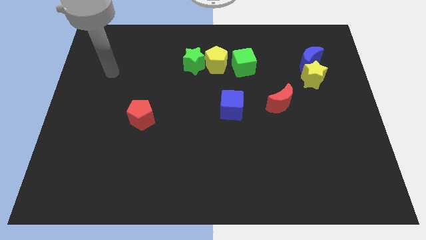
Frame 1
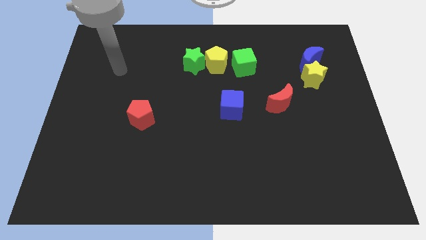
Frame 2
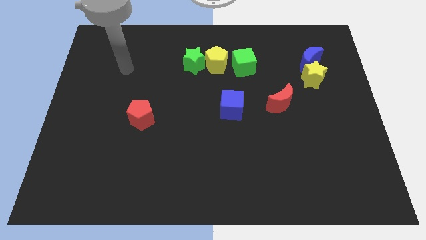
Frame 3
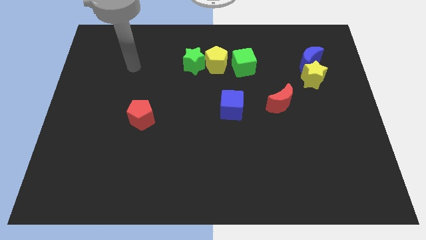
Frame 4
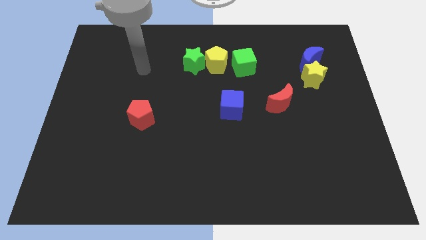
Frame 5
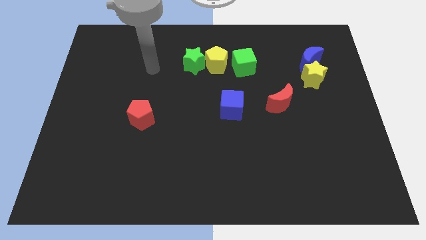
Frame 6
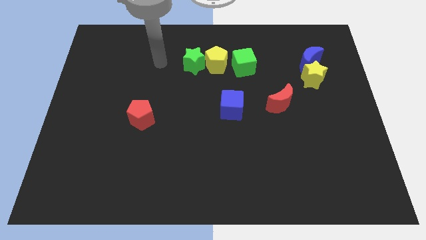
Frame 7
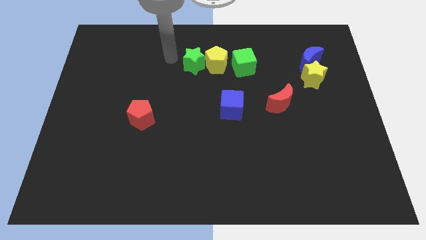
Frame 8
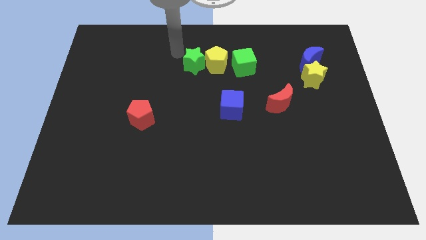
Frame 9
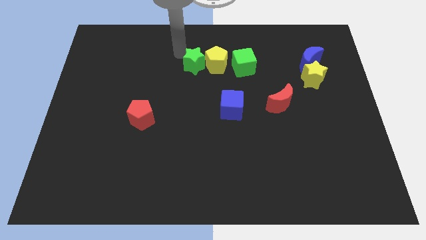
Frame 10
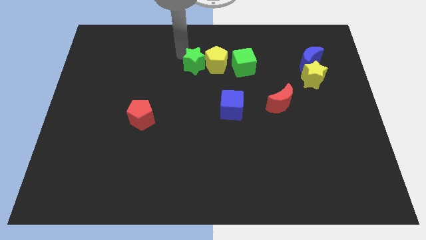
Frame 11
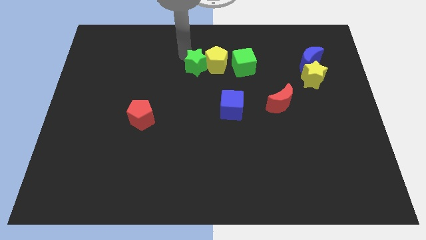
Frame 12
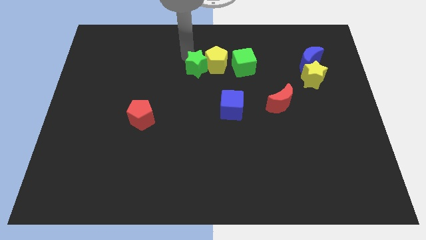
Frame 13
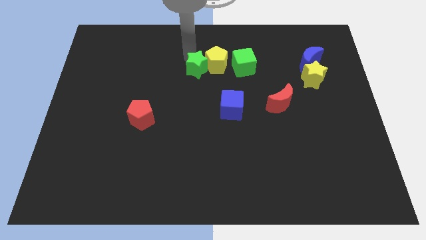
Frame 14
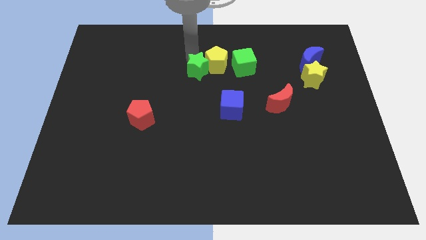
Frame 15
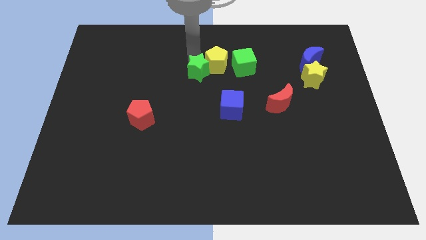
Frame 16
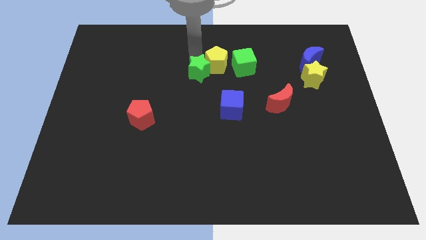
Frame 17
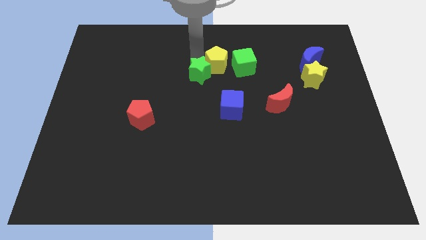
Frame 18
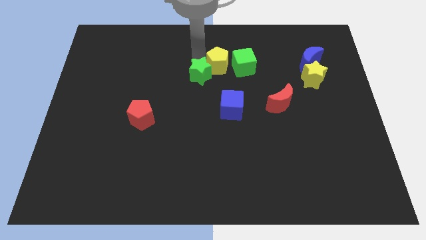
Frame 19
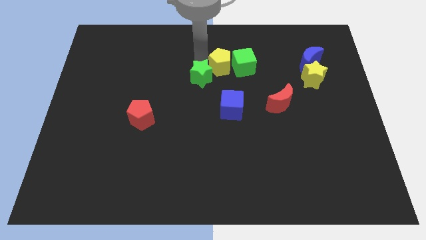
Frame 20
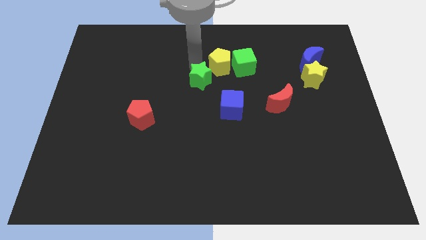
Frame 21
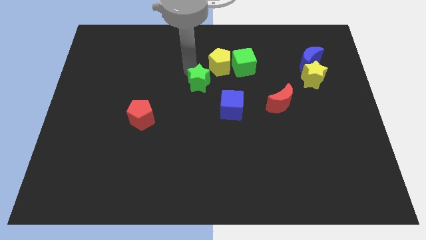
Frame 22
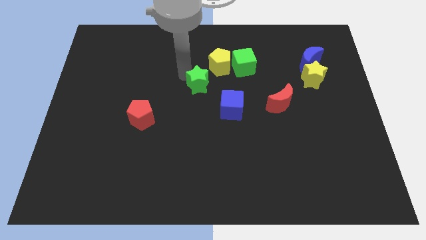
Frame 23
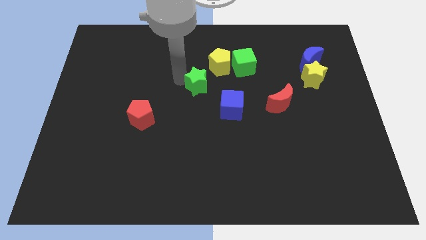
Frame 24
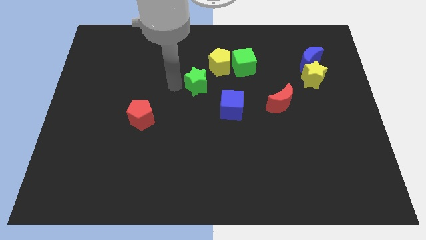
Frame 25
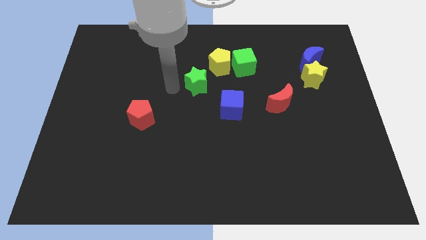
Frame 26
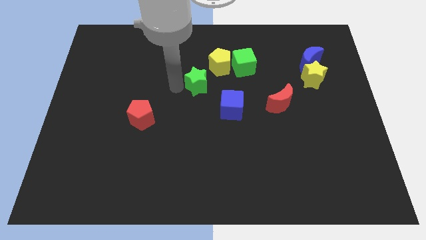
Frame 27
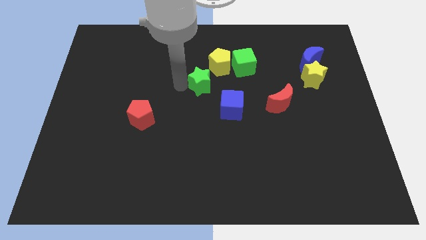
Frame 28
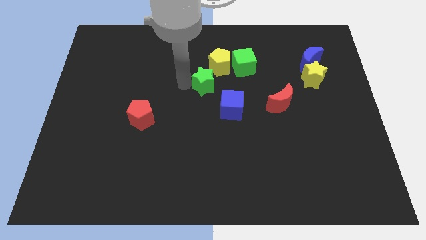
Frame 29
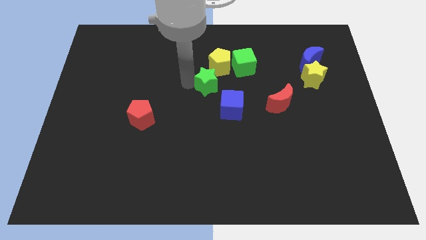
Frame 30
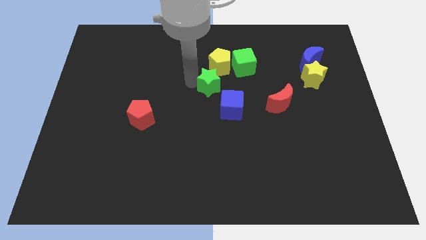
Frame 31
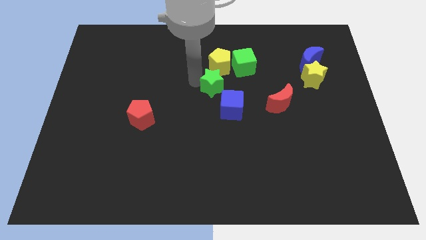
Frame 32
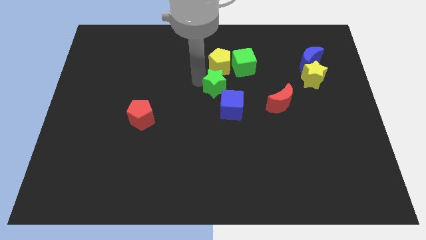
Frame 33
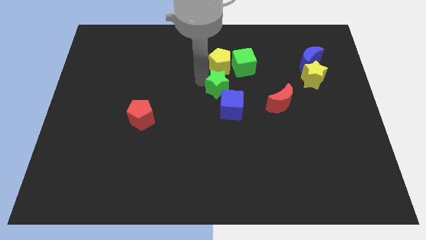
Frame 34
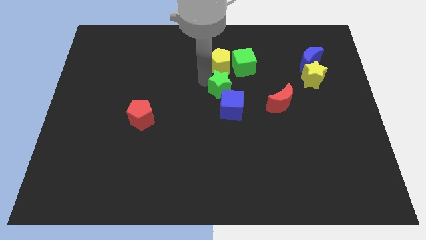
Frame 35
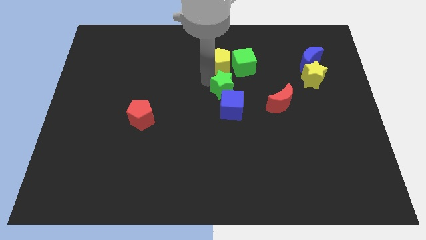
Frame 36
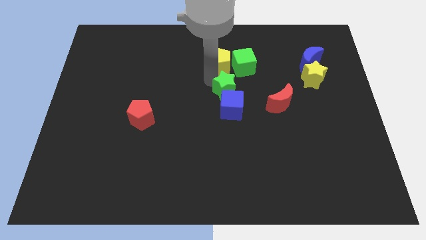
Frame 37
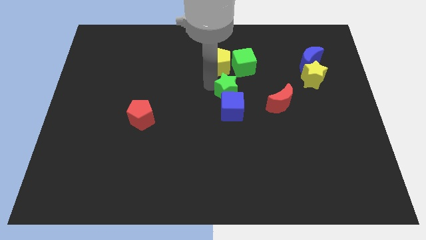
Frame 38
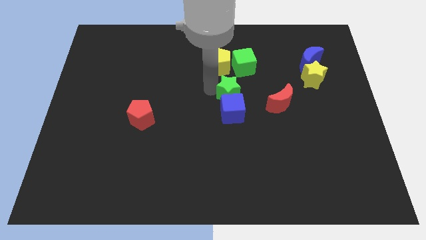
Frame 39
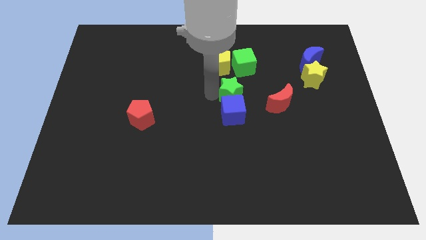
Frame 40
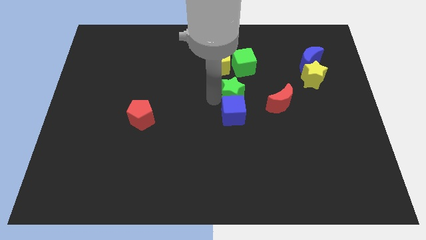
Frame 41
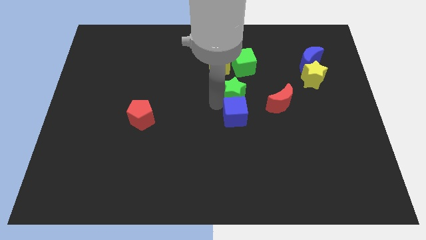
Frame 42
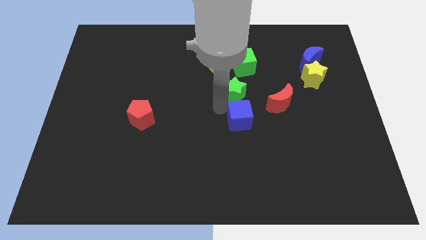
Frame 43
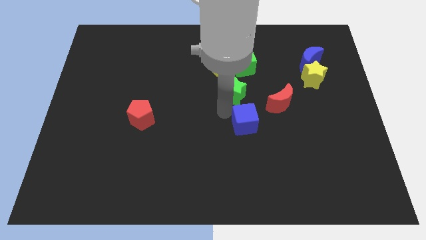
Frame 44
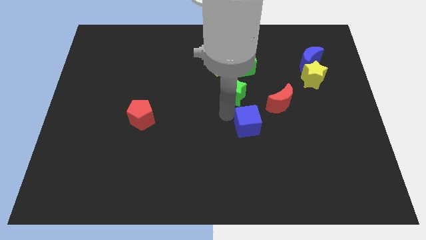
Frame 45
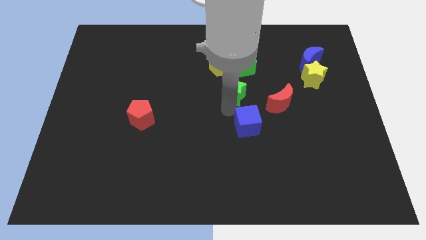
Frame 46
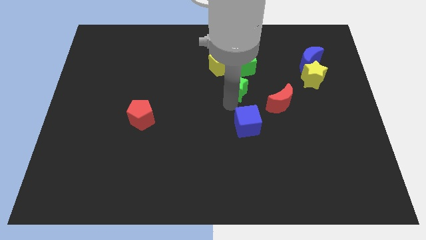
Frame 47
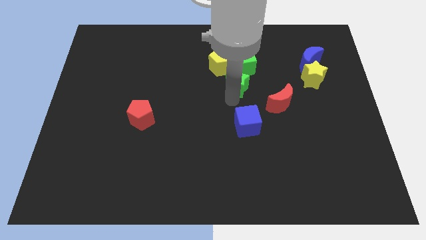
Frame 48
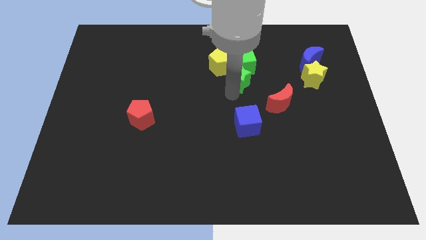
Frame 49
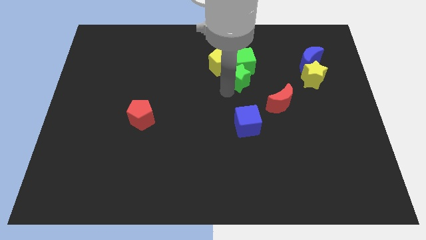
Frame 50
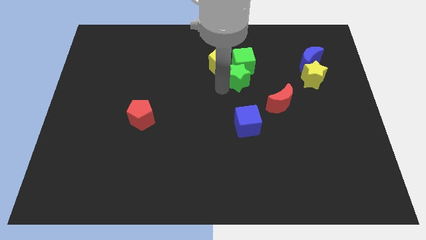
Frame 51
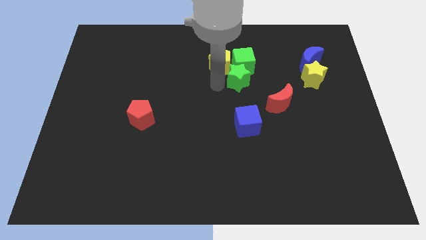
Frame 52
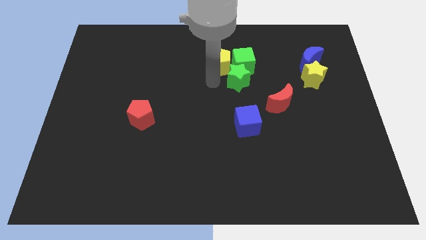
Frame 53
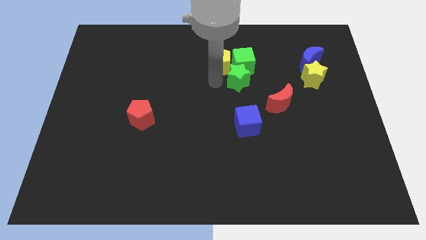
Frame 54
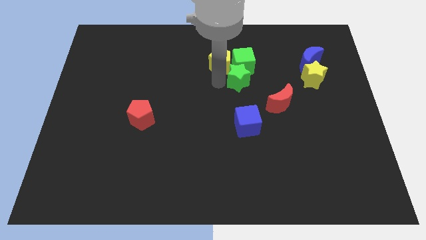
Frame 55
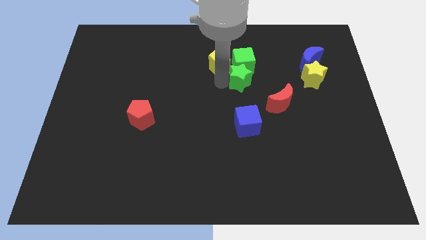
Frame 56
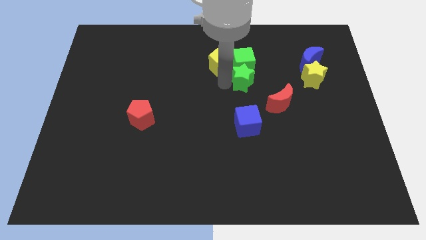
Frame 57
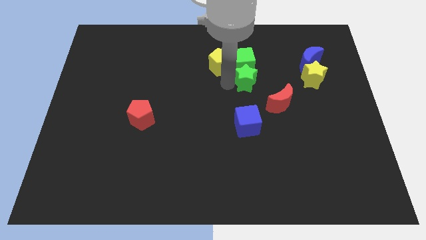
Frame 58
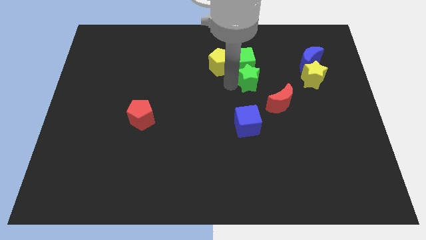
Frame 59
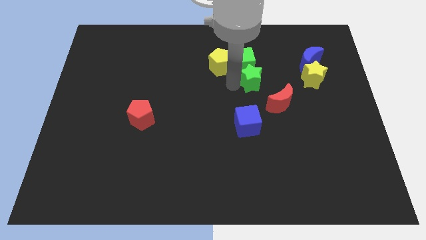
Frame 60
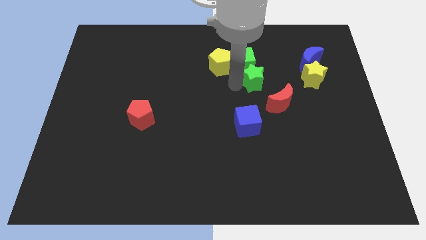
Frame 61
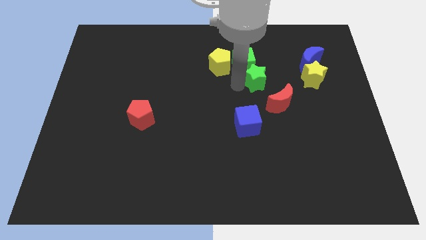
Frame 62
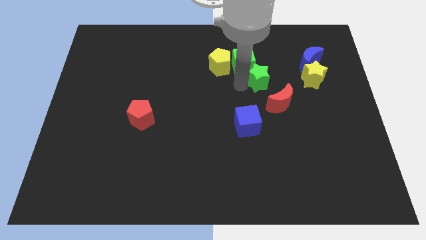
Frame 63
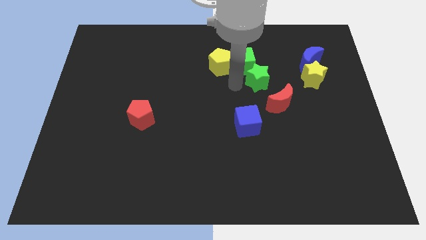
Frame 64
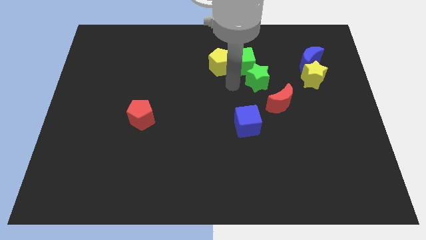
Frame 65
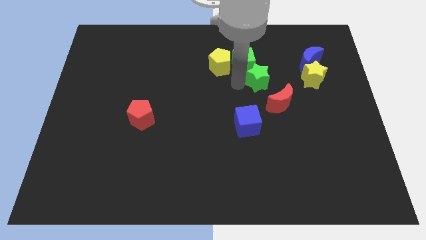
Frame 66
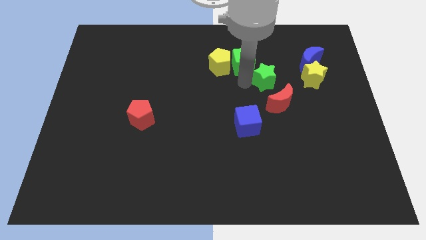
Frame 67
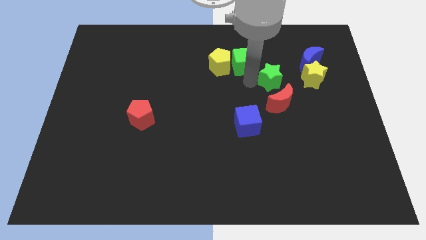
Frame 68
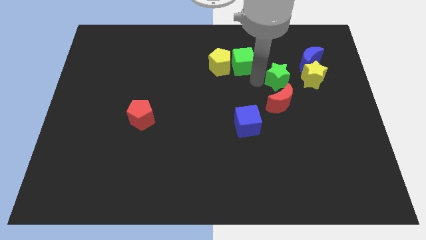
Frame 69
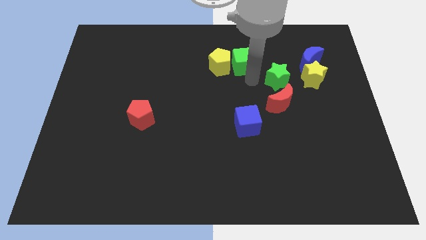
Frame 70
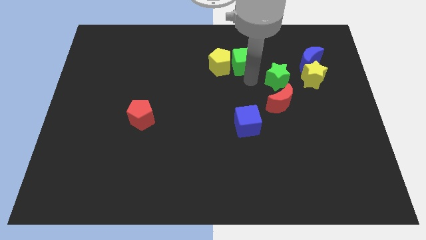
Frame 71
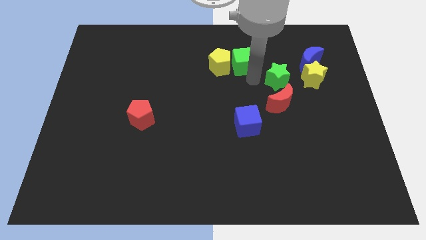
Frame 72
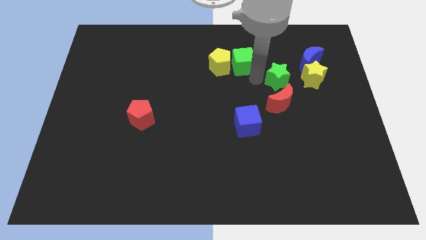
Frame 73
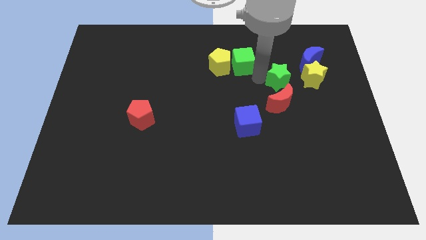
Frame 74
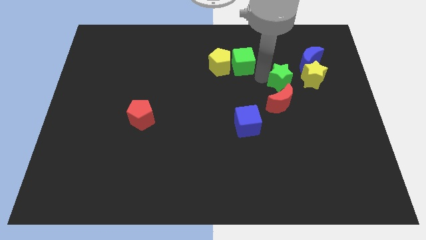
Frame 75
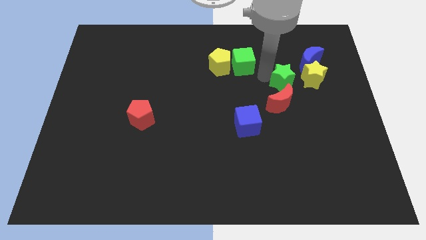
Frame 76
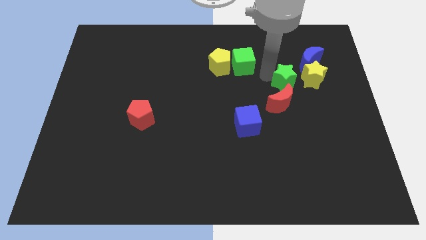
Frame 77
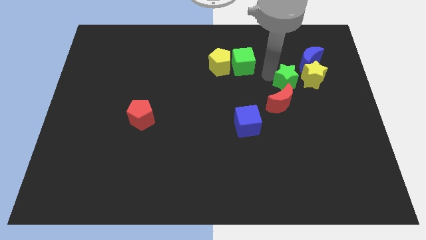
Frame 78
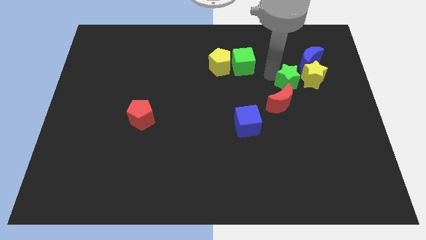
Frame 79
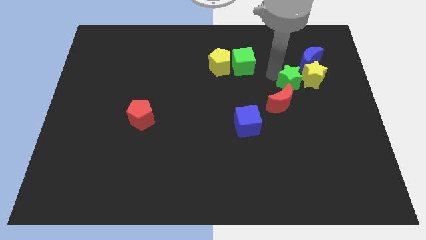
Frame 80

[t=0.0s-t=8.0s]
slide the green star towards the yellow star
